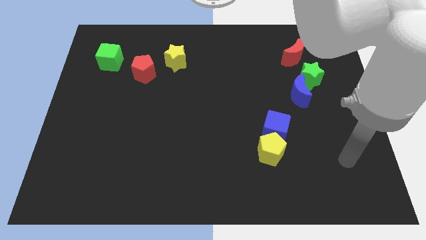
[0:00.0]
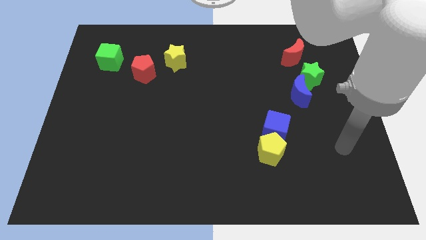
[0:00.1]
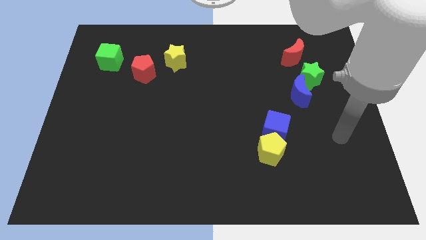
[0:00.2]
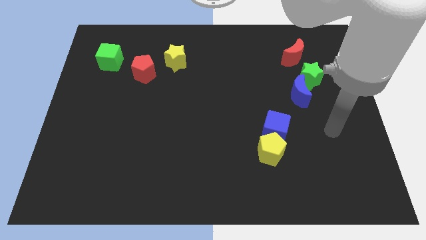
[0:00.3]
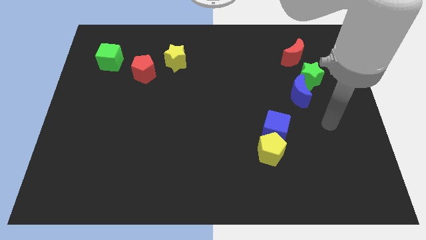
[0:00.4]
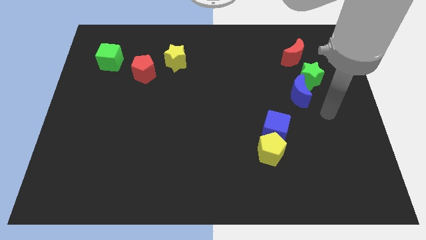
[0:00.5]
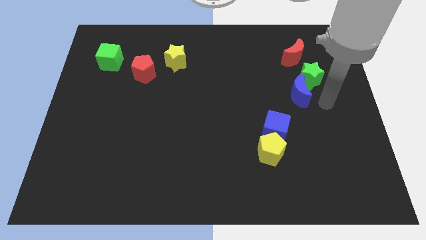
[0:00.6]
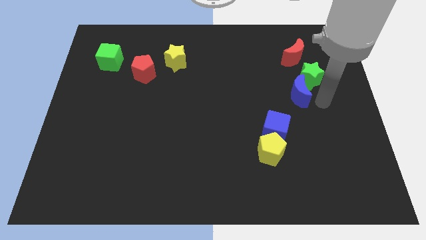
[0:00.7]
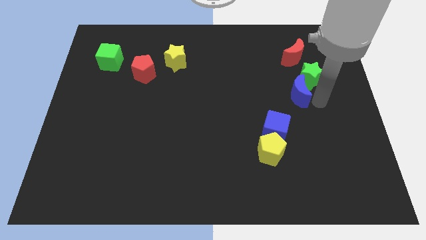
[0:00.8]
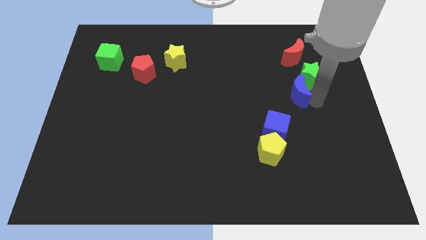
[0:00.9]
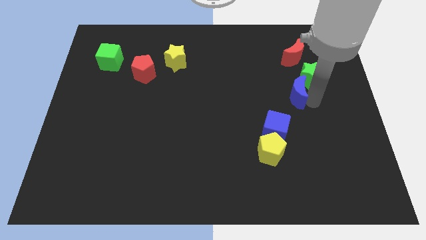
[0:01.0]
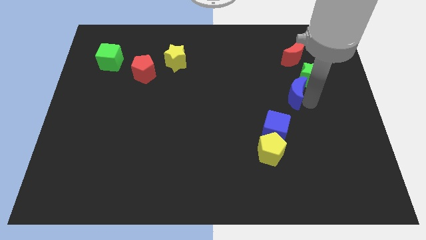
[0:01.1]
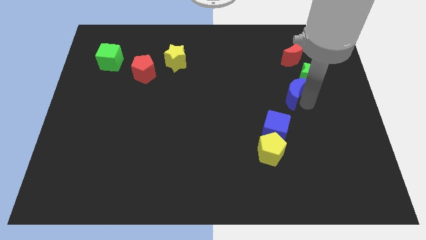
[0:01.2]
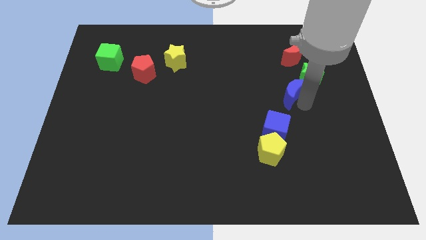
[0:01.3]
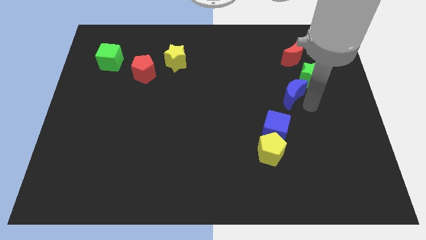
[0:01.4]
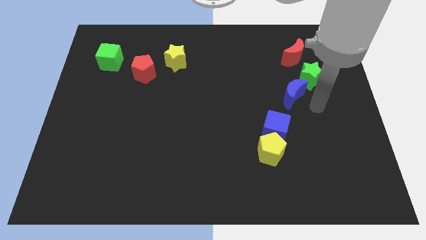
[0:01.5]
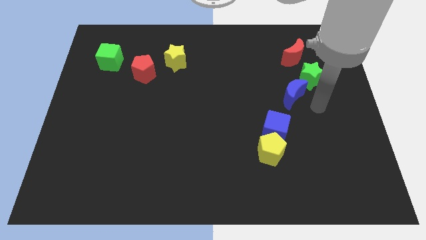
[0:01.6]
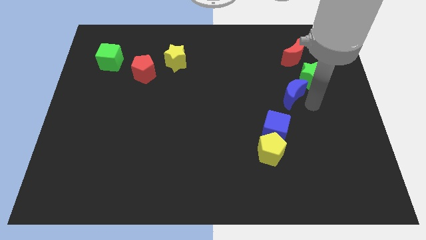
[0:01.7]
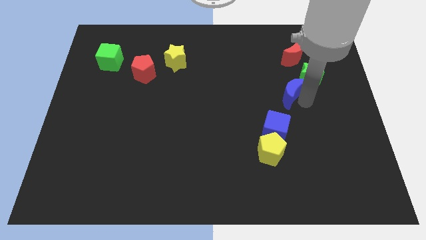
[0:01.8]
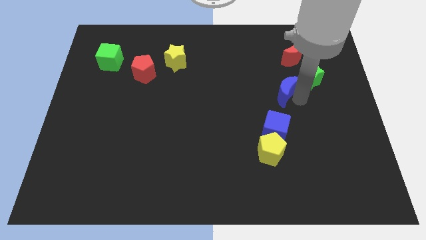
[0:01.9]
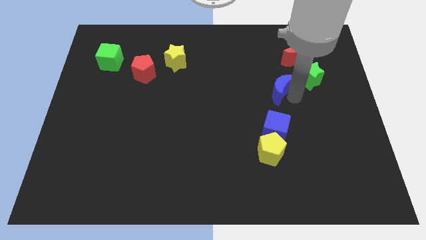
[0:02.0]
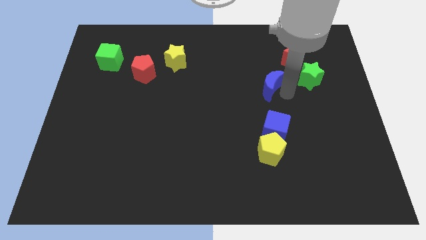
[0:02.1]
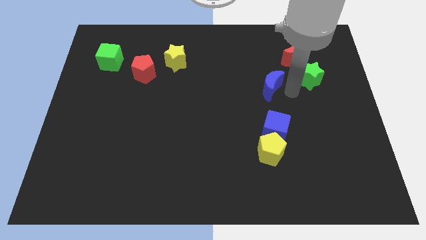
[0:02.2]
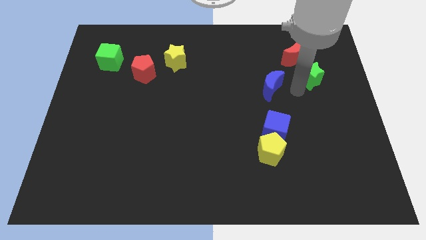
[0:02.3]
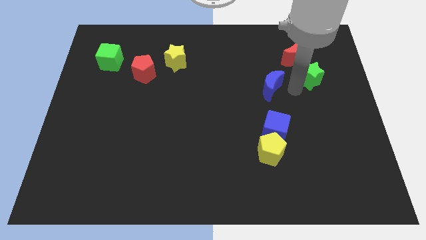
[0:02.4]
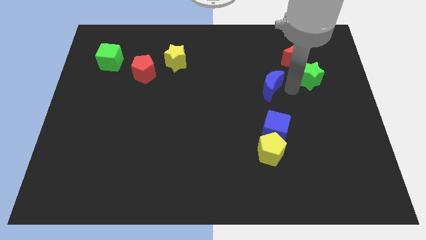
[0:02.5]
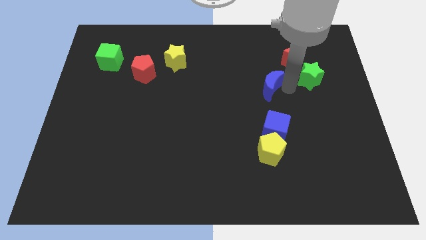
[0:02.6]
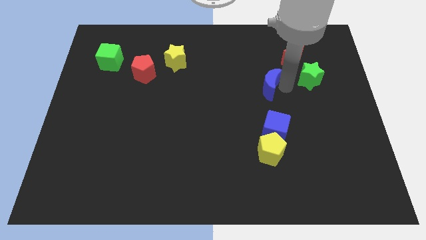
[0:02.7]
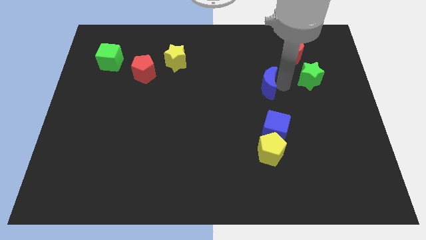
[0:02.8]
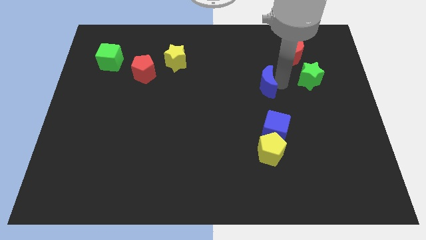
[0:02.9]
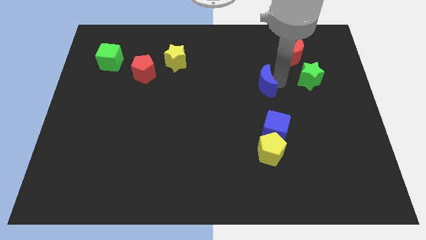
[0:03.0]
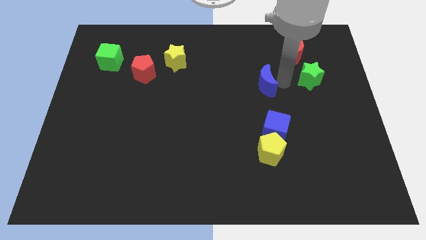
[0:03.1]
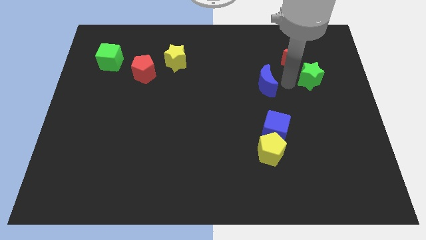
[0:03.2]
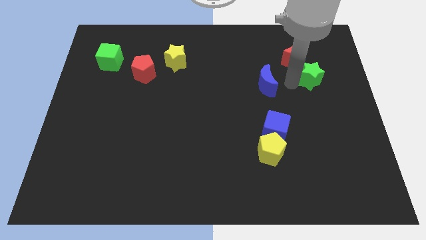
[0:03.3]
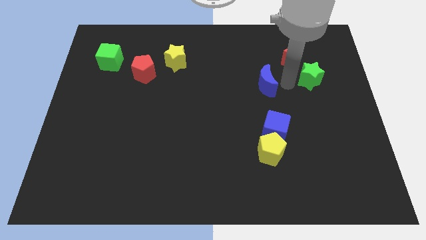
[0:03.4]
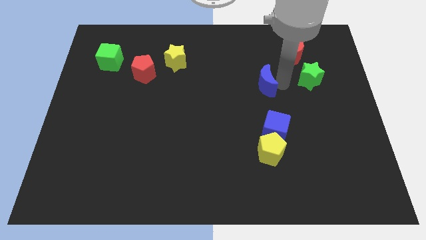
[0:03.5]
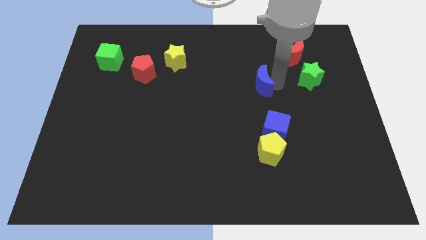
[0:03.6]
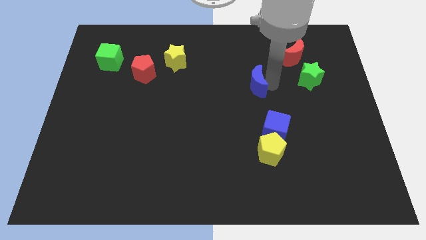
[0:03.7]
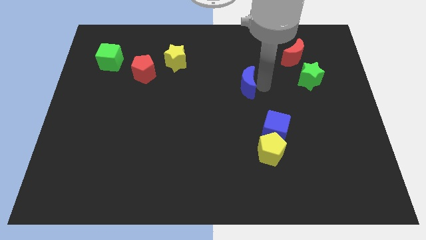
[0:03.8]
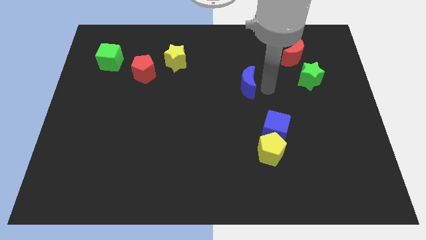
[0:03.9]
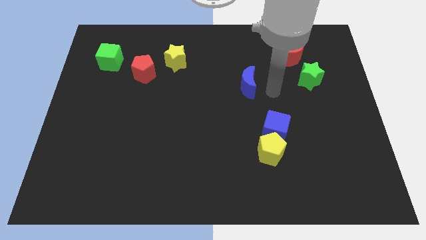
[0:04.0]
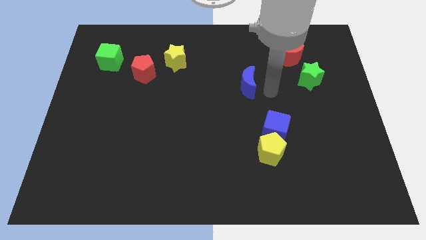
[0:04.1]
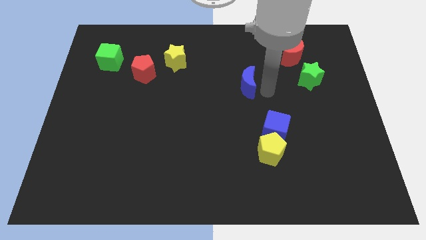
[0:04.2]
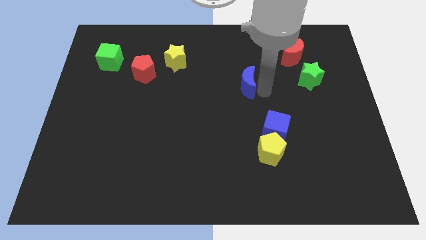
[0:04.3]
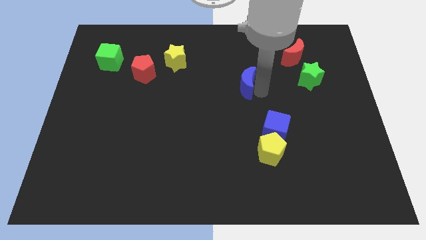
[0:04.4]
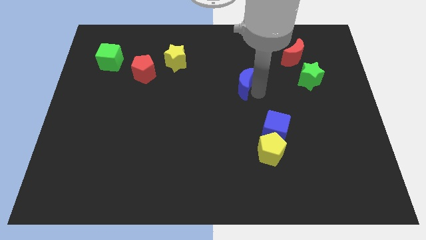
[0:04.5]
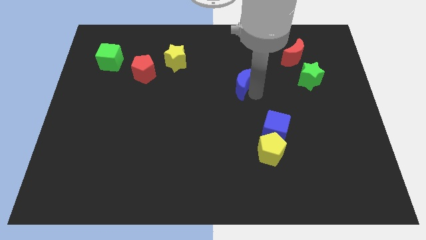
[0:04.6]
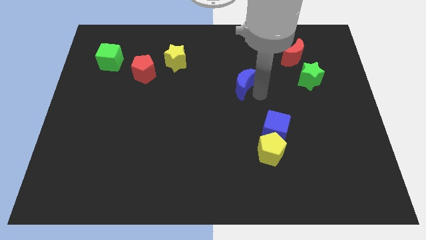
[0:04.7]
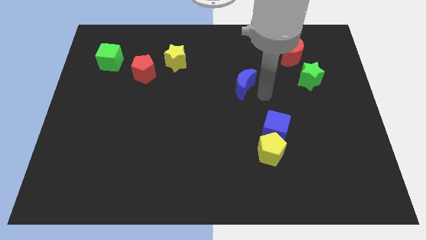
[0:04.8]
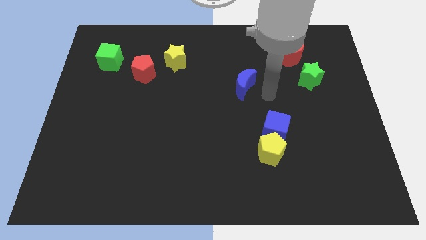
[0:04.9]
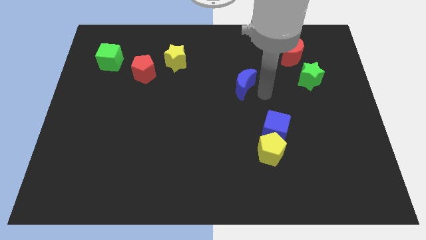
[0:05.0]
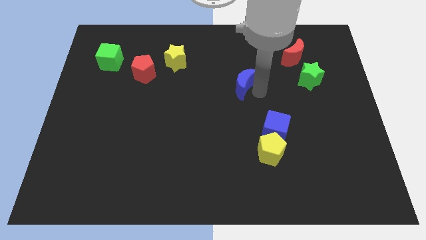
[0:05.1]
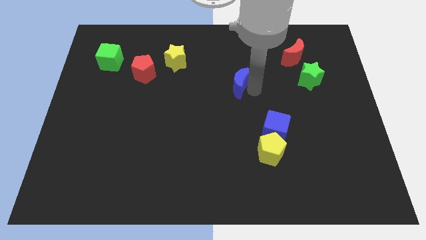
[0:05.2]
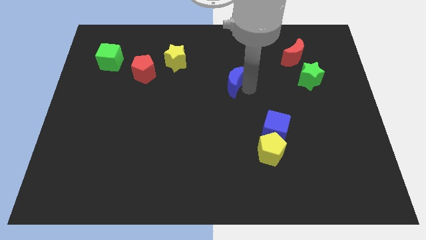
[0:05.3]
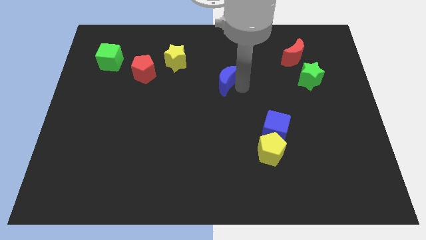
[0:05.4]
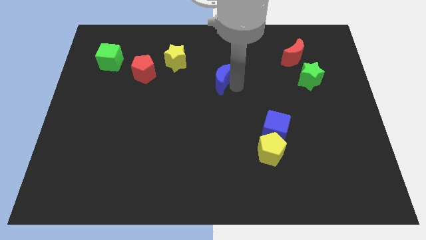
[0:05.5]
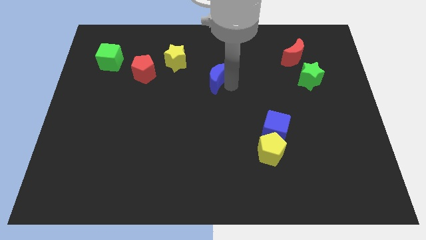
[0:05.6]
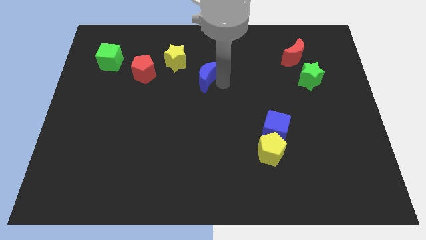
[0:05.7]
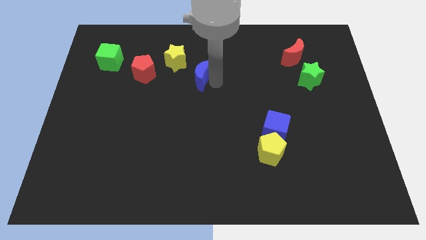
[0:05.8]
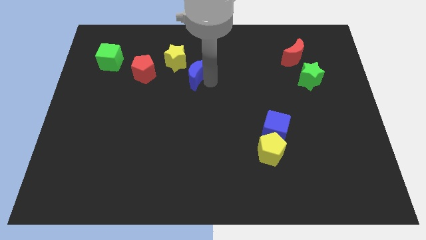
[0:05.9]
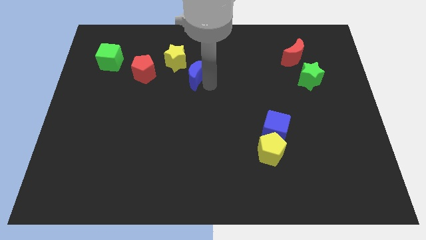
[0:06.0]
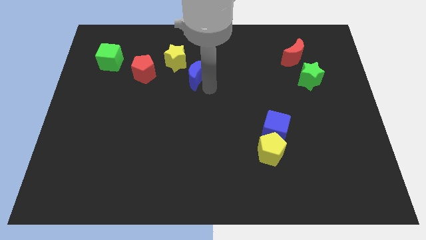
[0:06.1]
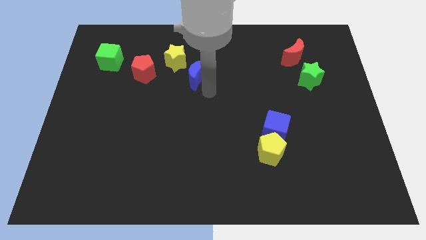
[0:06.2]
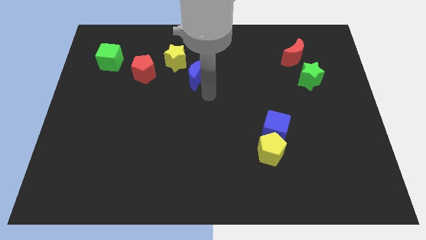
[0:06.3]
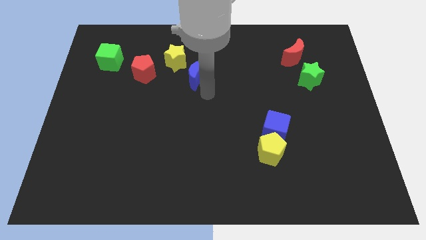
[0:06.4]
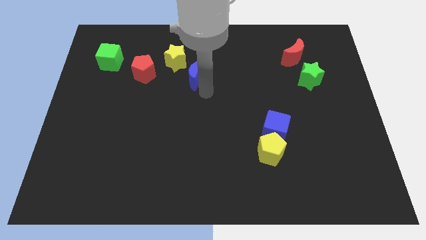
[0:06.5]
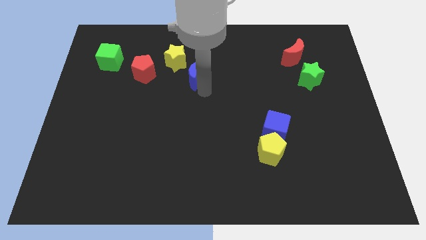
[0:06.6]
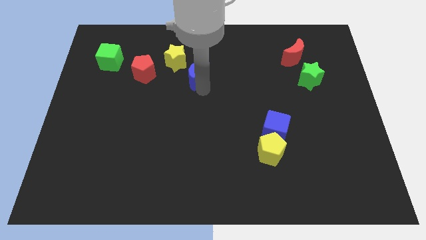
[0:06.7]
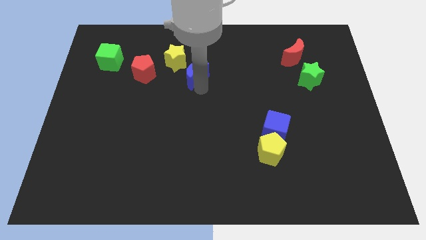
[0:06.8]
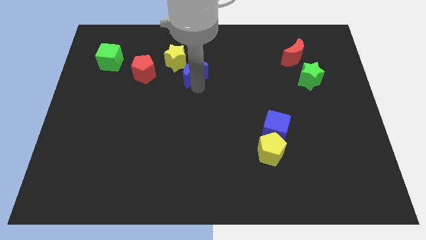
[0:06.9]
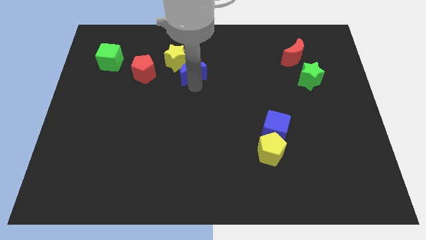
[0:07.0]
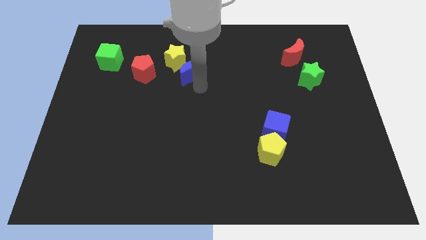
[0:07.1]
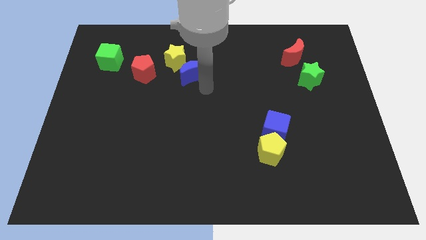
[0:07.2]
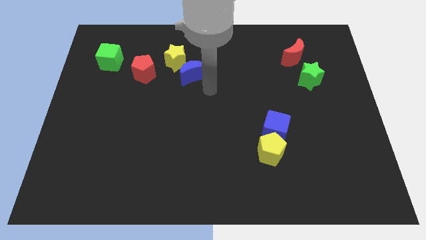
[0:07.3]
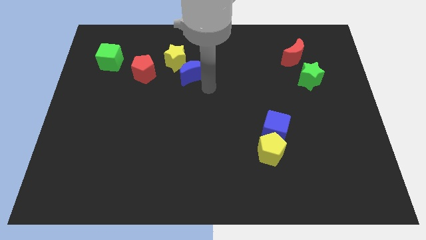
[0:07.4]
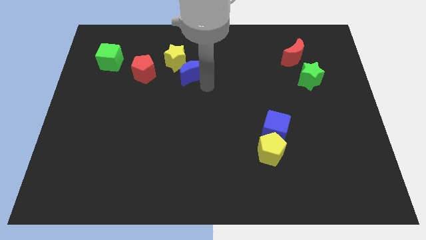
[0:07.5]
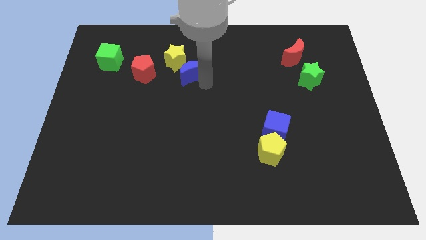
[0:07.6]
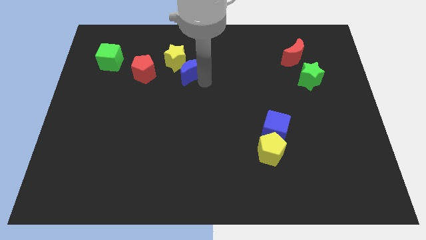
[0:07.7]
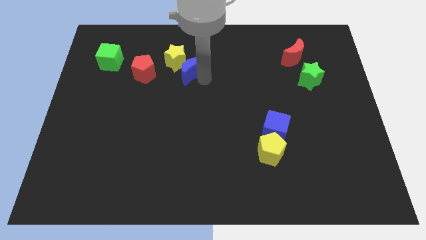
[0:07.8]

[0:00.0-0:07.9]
slide the blue moon to the yellow star
